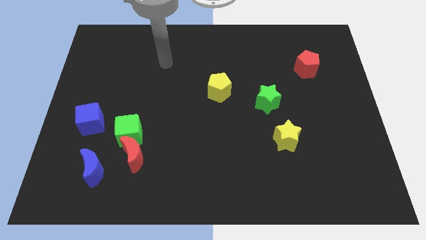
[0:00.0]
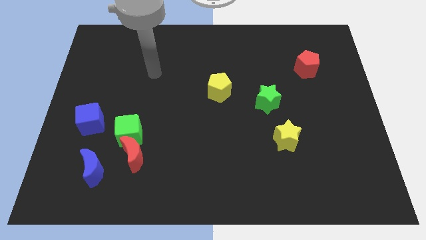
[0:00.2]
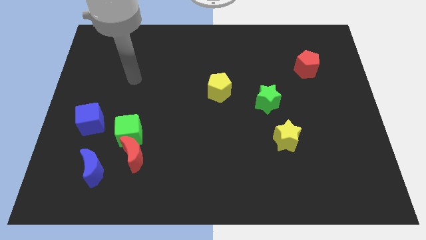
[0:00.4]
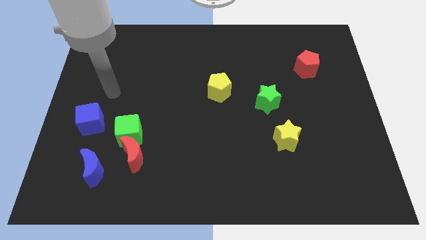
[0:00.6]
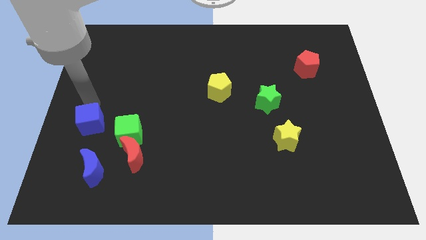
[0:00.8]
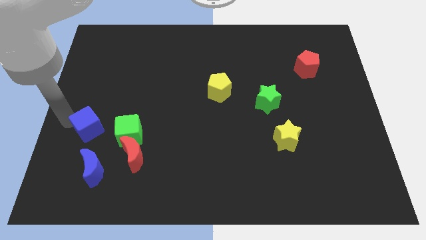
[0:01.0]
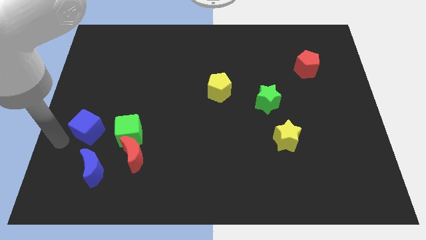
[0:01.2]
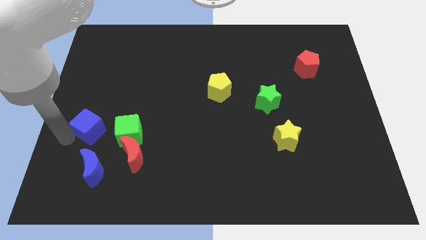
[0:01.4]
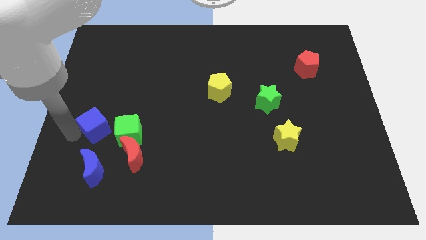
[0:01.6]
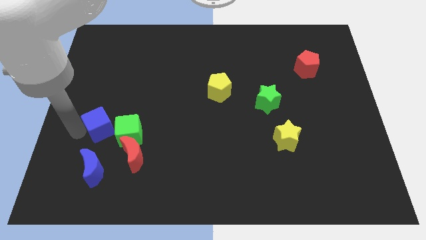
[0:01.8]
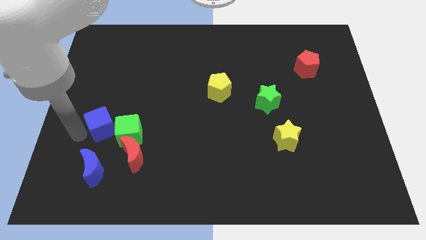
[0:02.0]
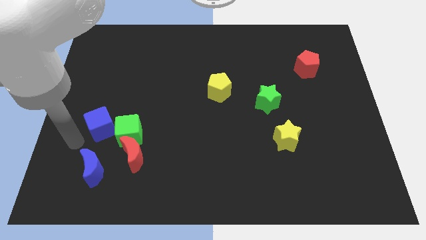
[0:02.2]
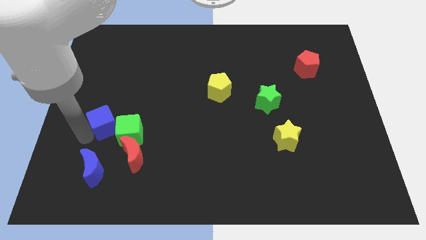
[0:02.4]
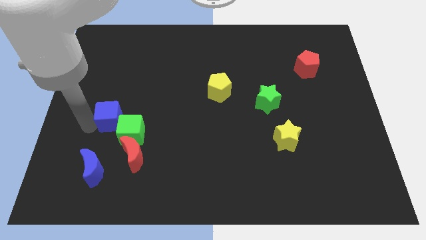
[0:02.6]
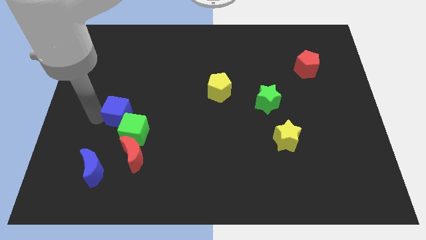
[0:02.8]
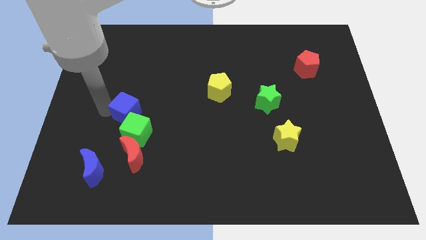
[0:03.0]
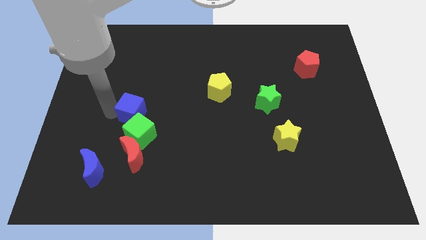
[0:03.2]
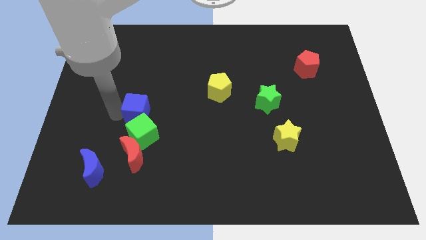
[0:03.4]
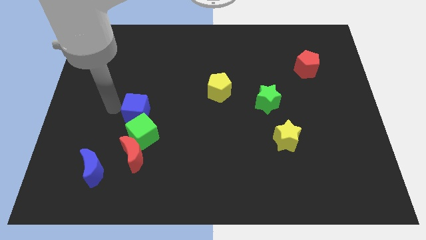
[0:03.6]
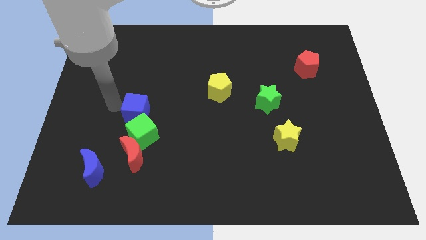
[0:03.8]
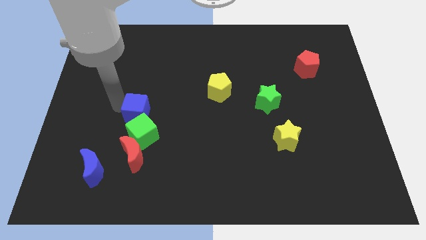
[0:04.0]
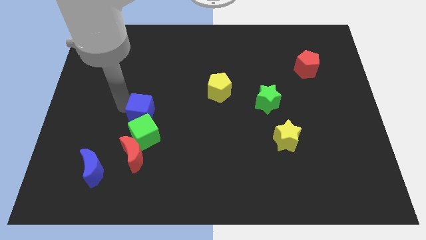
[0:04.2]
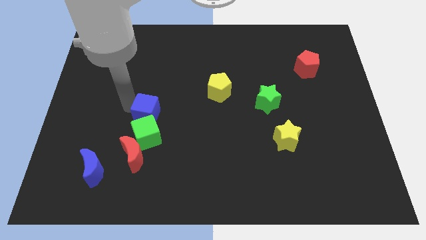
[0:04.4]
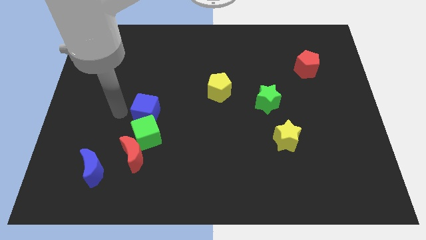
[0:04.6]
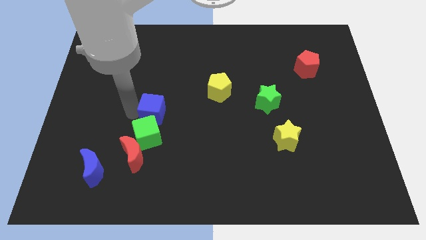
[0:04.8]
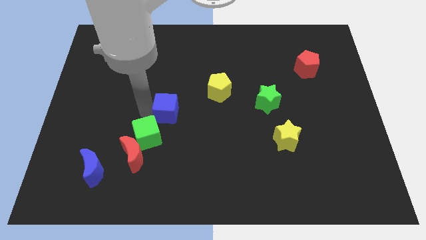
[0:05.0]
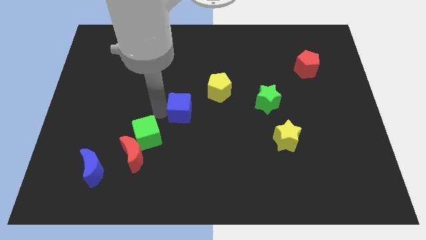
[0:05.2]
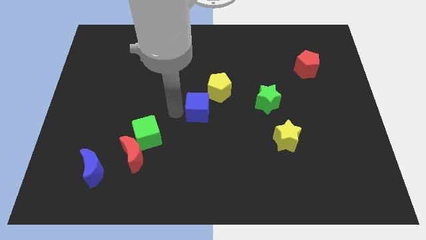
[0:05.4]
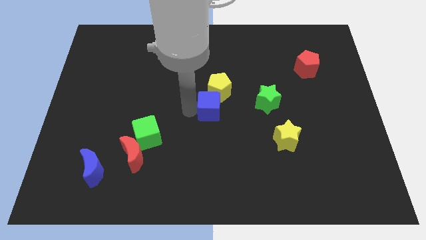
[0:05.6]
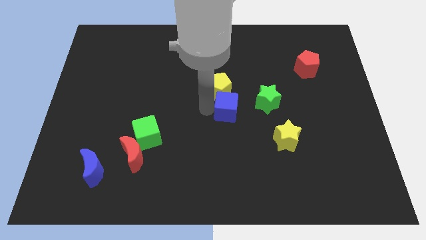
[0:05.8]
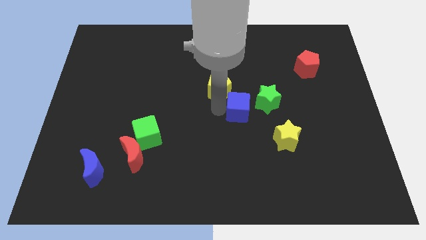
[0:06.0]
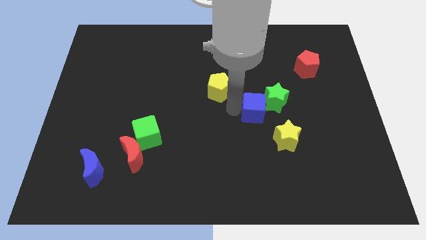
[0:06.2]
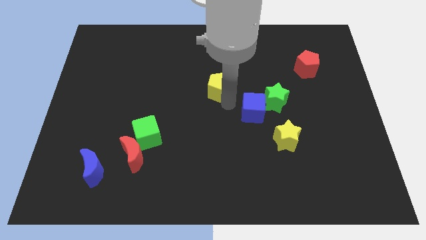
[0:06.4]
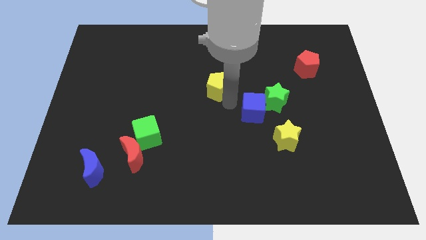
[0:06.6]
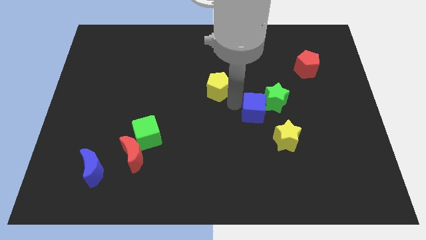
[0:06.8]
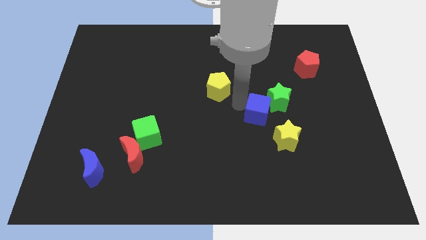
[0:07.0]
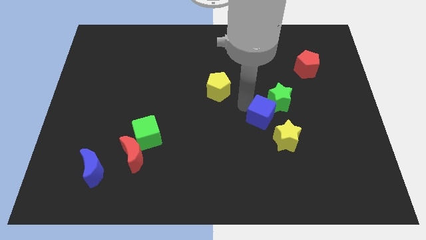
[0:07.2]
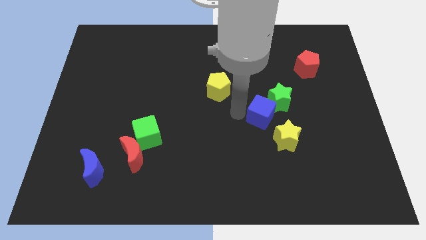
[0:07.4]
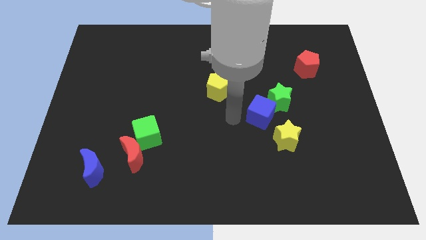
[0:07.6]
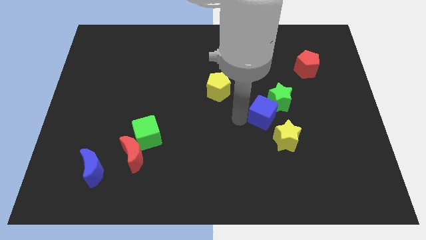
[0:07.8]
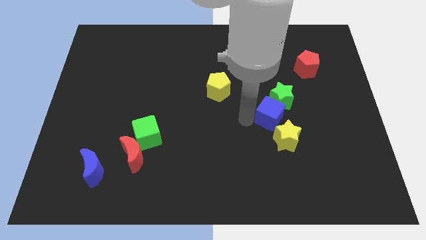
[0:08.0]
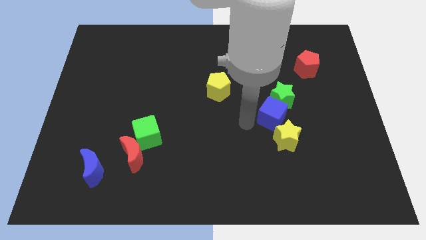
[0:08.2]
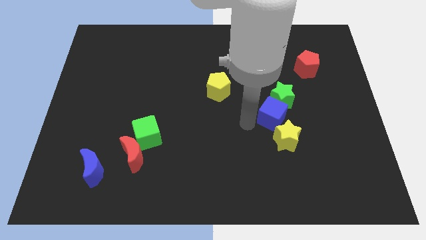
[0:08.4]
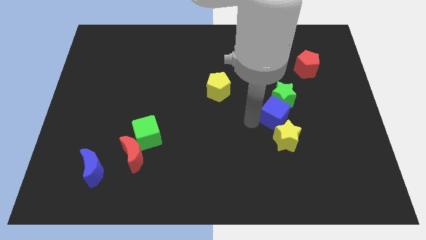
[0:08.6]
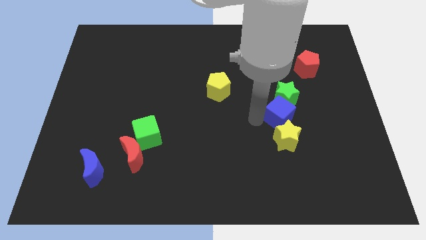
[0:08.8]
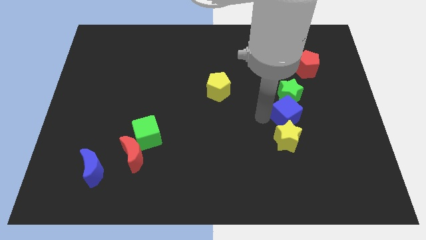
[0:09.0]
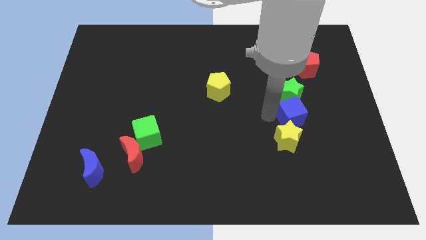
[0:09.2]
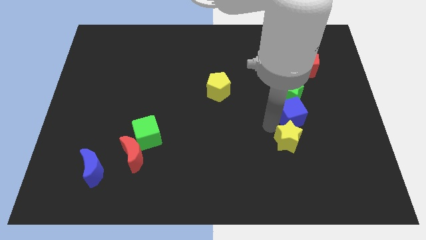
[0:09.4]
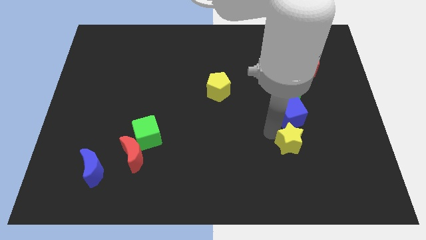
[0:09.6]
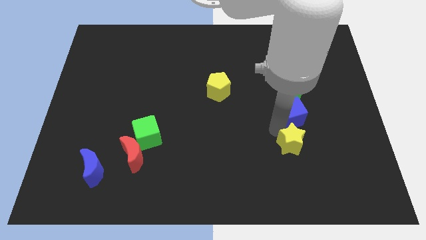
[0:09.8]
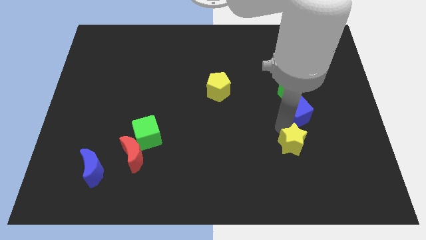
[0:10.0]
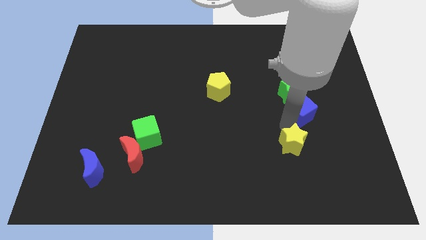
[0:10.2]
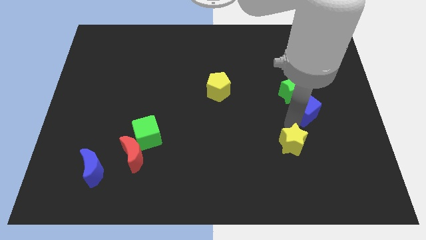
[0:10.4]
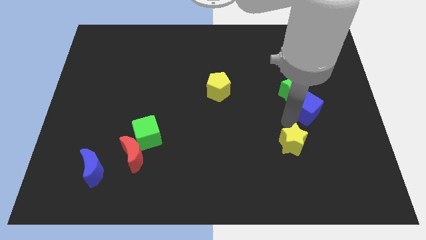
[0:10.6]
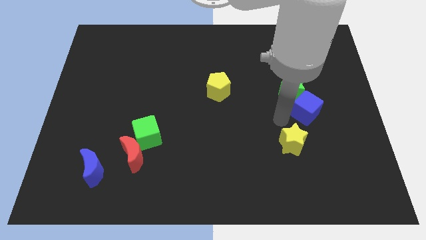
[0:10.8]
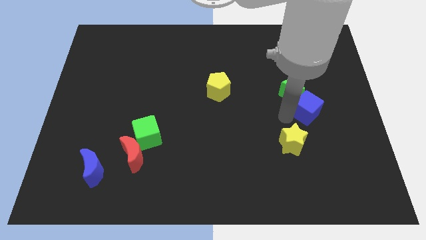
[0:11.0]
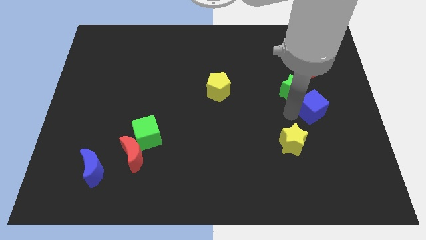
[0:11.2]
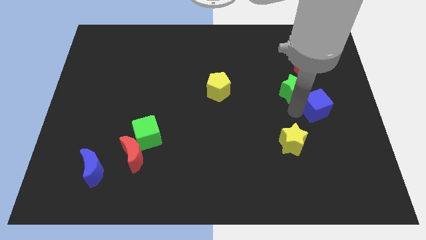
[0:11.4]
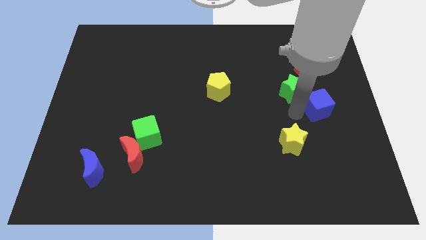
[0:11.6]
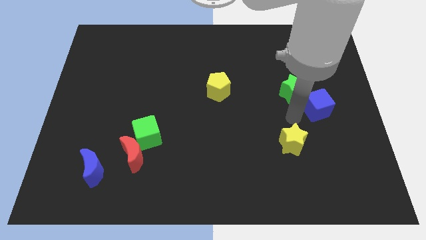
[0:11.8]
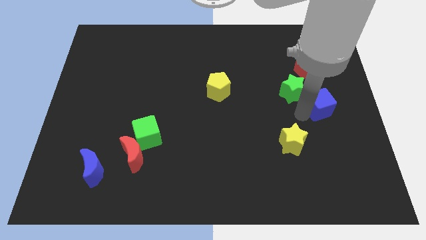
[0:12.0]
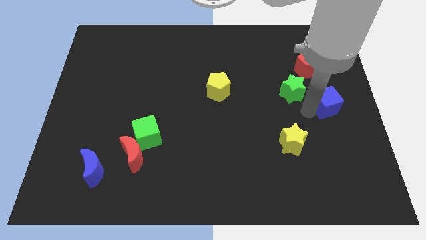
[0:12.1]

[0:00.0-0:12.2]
put the blue cube to the right side

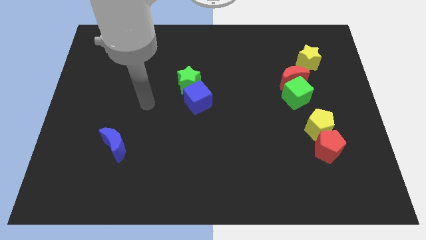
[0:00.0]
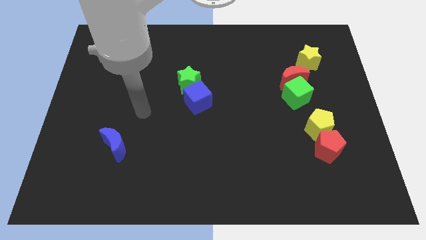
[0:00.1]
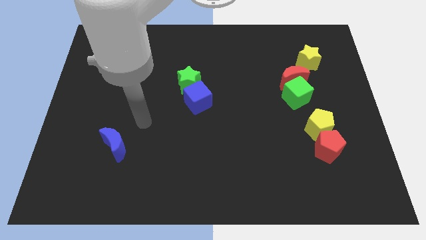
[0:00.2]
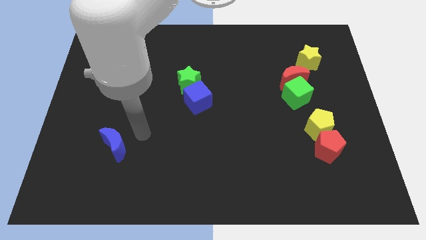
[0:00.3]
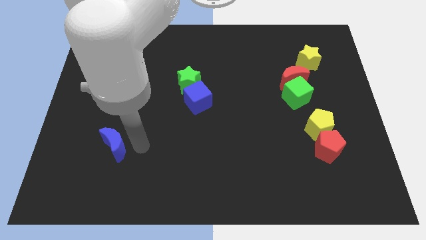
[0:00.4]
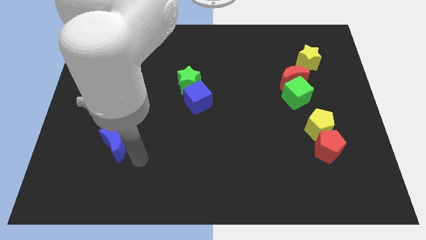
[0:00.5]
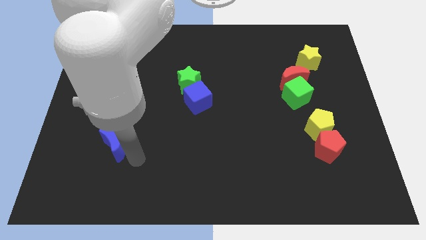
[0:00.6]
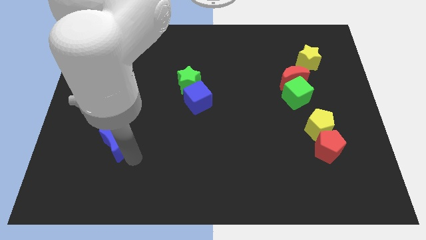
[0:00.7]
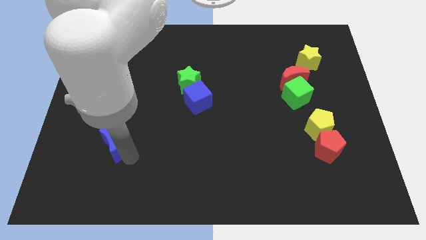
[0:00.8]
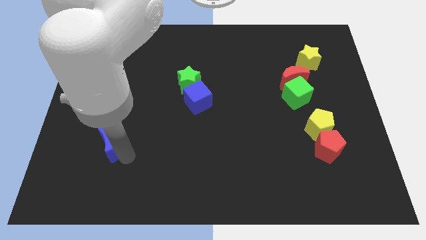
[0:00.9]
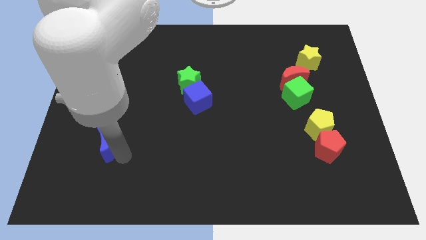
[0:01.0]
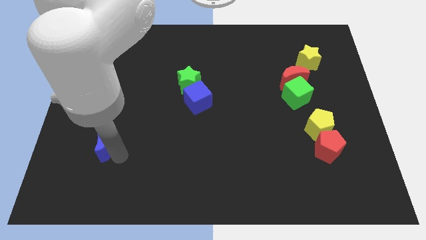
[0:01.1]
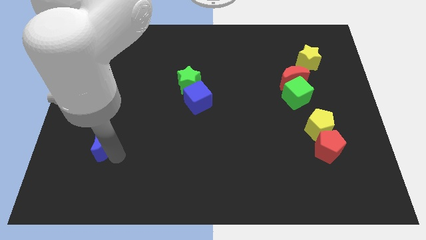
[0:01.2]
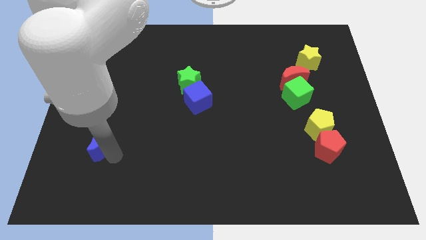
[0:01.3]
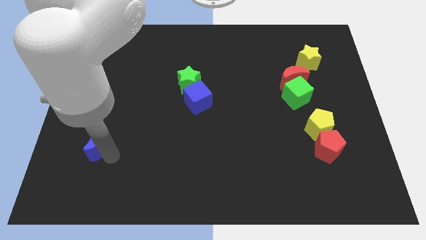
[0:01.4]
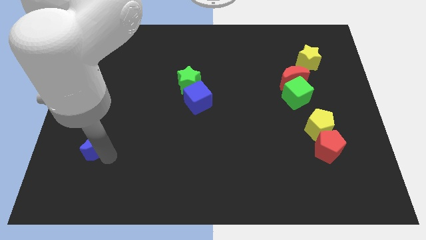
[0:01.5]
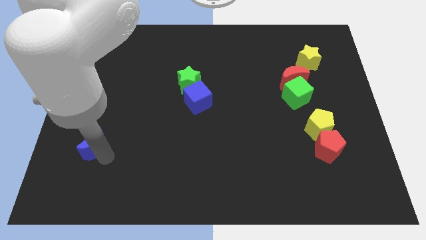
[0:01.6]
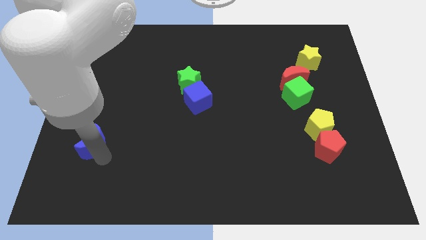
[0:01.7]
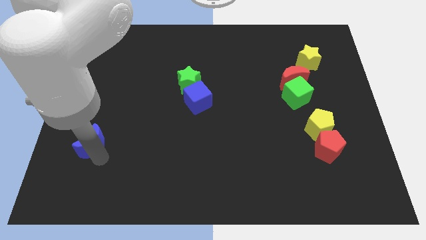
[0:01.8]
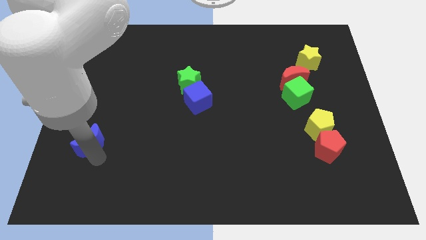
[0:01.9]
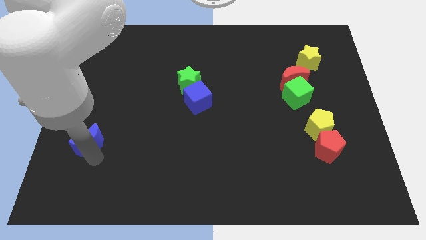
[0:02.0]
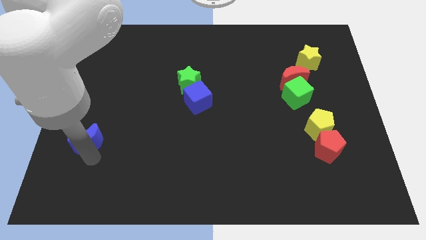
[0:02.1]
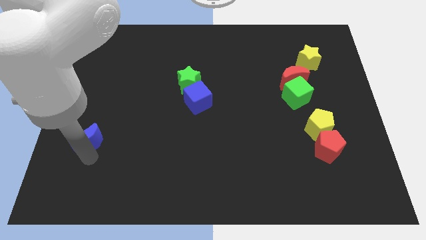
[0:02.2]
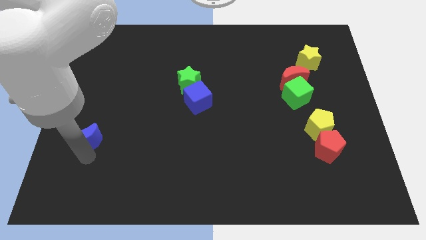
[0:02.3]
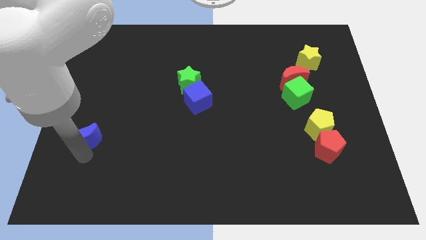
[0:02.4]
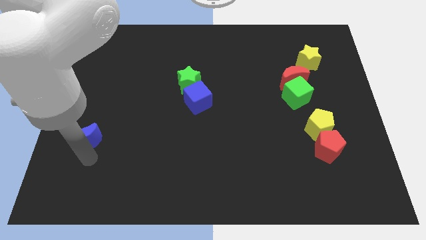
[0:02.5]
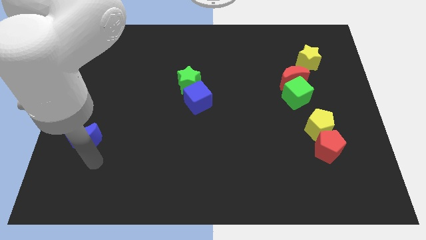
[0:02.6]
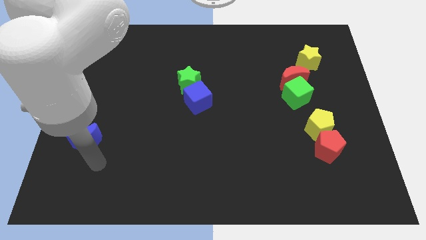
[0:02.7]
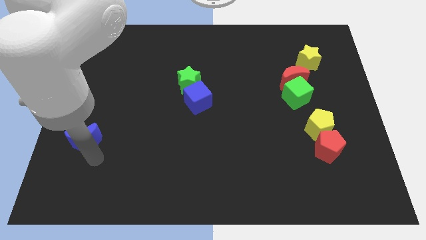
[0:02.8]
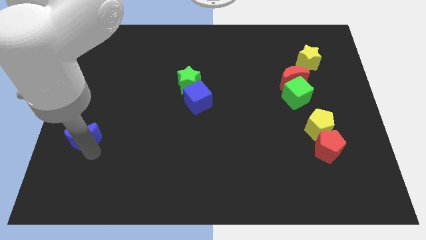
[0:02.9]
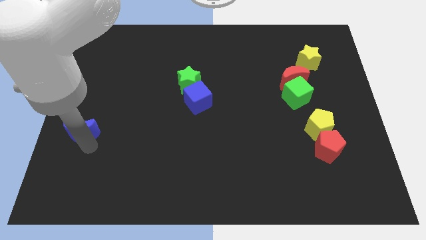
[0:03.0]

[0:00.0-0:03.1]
move the blue moon to the center left
